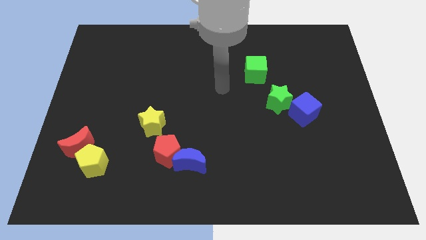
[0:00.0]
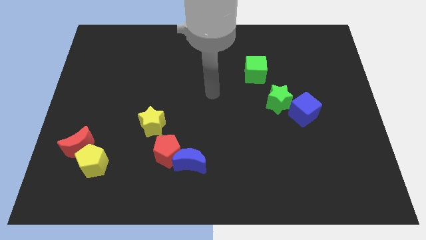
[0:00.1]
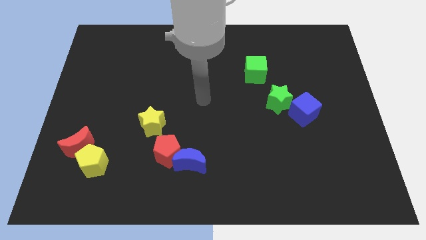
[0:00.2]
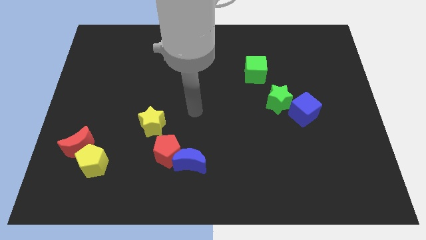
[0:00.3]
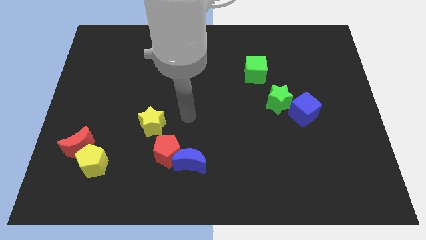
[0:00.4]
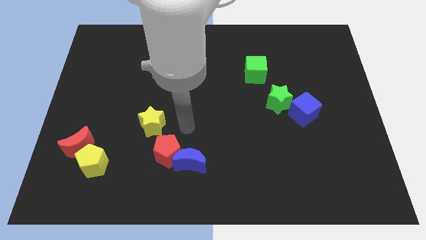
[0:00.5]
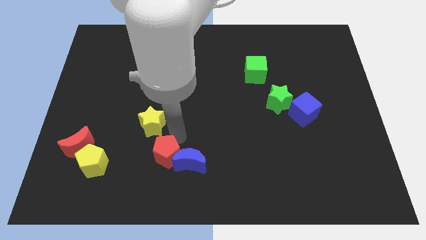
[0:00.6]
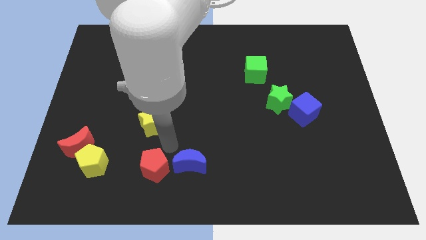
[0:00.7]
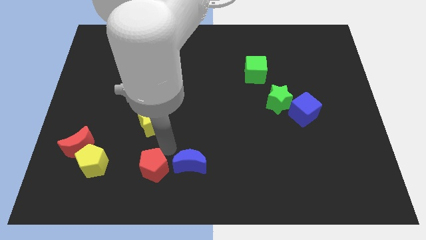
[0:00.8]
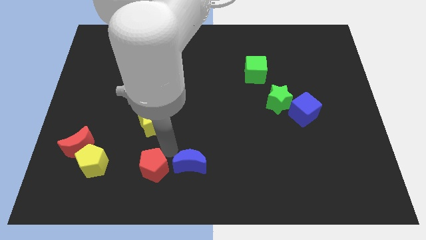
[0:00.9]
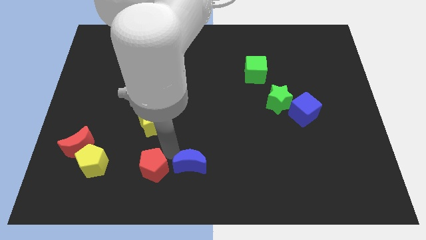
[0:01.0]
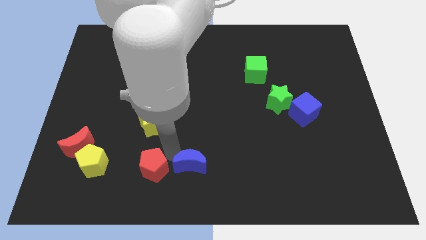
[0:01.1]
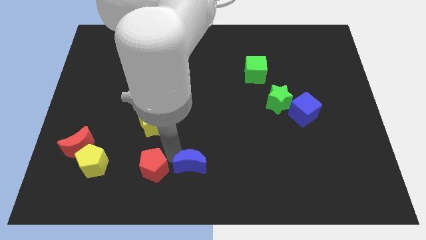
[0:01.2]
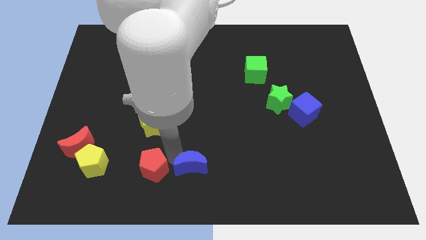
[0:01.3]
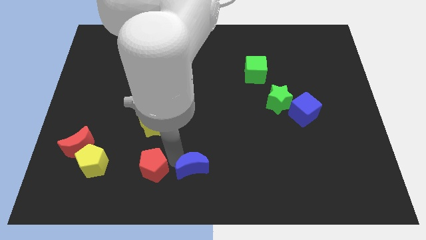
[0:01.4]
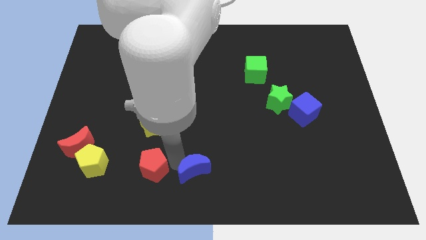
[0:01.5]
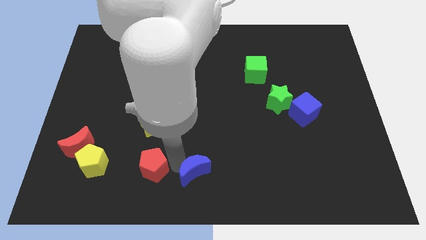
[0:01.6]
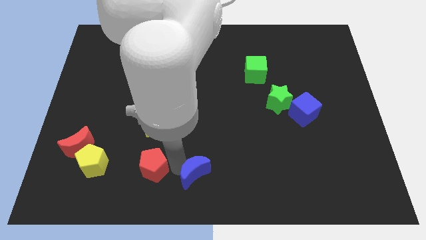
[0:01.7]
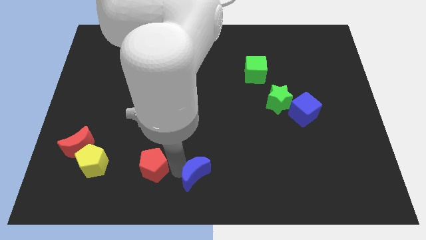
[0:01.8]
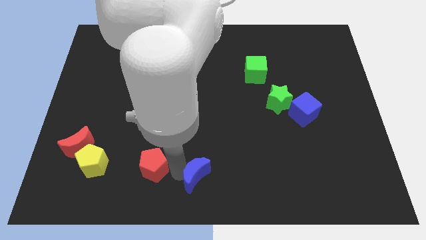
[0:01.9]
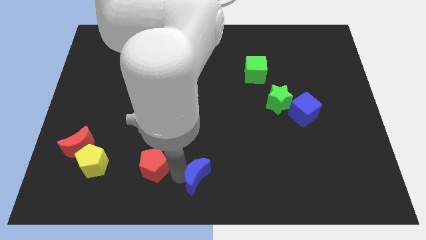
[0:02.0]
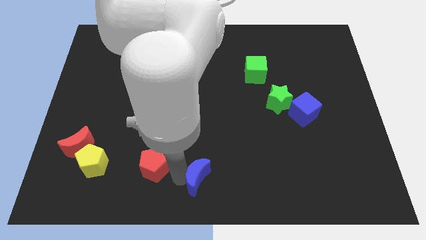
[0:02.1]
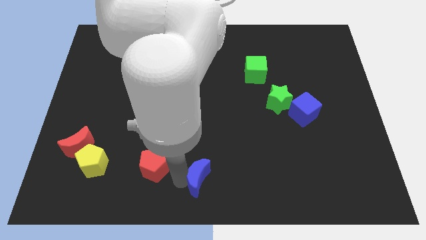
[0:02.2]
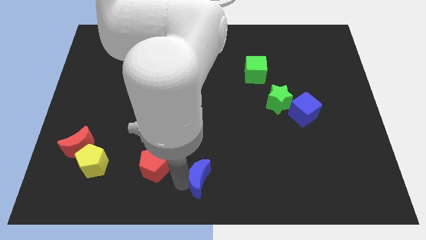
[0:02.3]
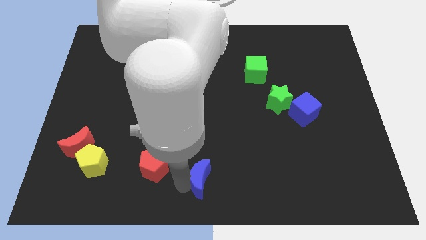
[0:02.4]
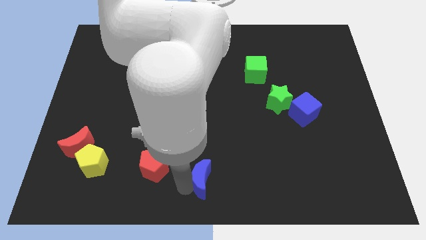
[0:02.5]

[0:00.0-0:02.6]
separate the blue moon from the red pentagon

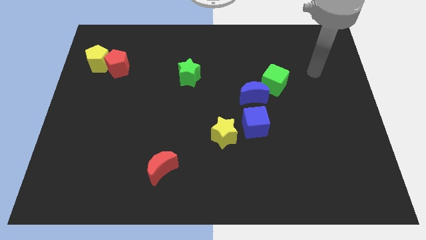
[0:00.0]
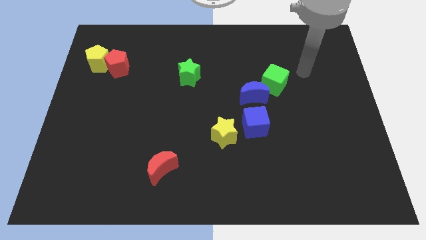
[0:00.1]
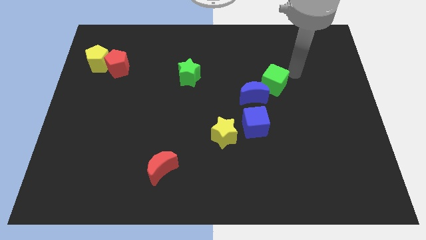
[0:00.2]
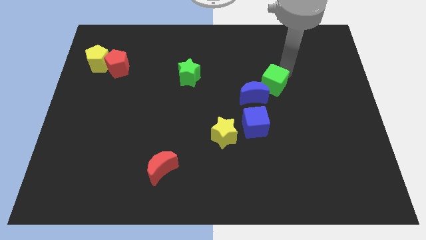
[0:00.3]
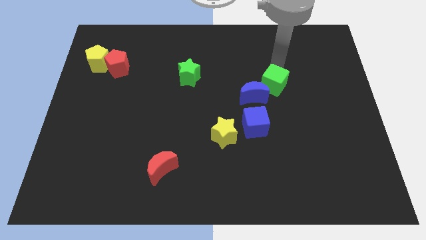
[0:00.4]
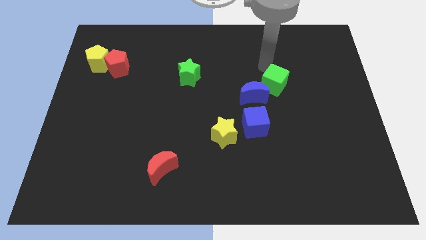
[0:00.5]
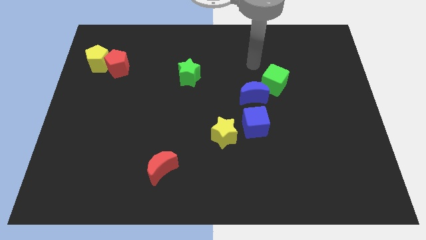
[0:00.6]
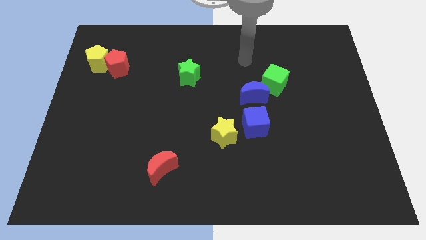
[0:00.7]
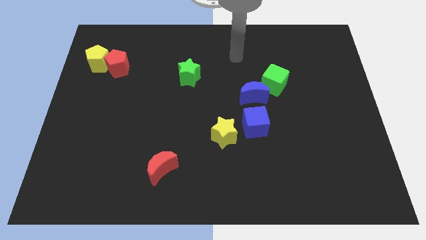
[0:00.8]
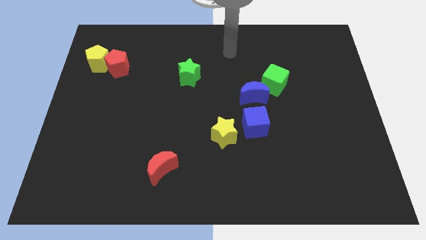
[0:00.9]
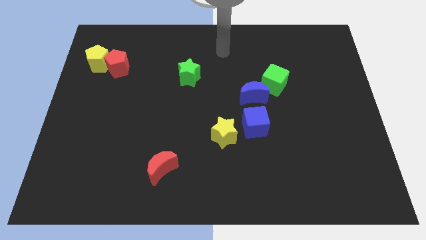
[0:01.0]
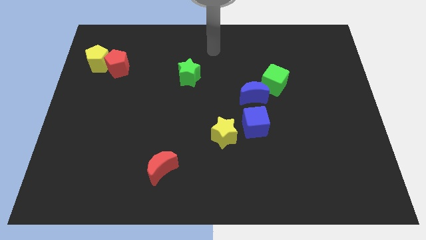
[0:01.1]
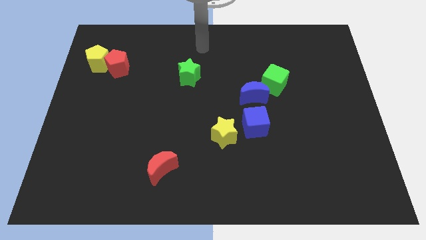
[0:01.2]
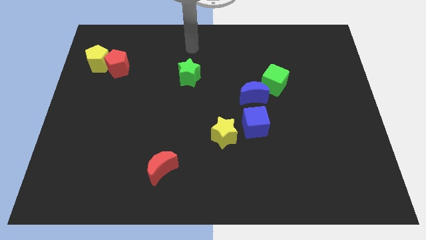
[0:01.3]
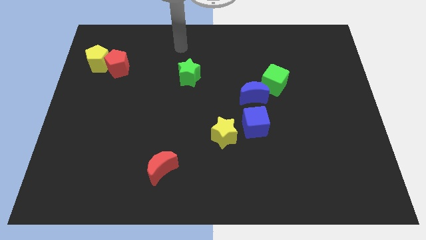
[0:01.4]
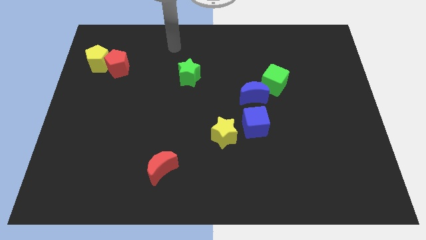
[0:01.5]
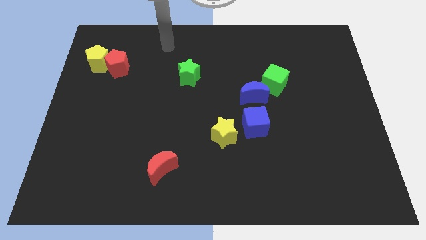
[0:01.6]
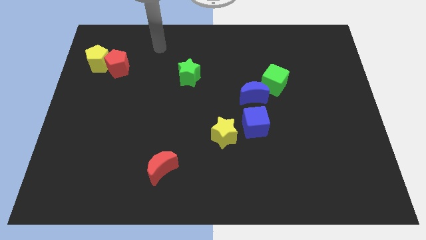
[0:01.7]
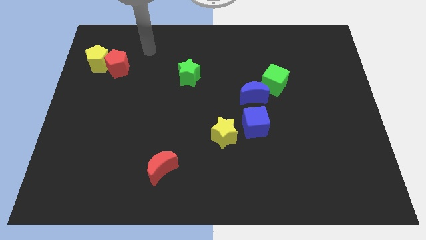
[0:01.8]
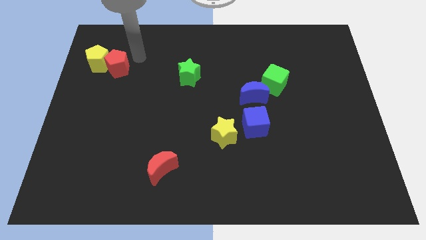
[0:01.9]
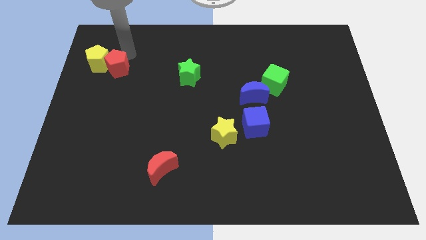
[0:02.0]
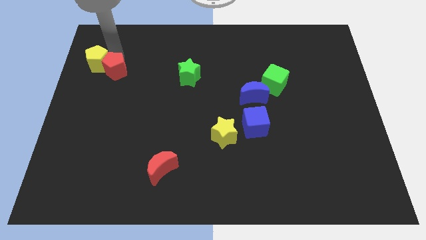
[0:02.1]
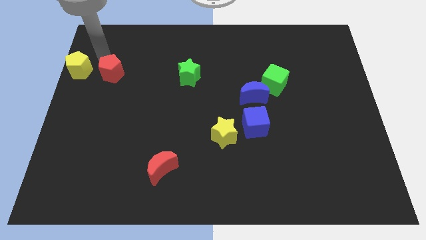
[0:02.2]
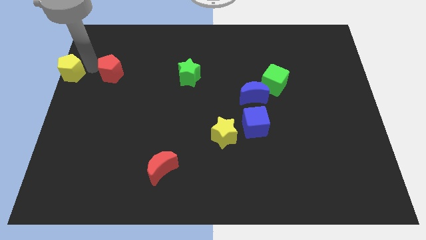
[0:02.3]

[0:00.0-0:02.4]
move the red pentagon away from the yellow pentagon

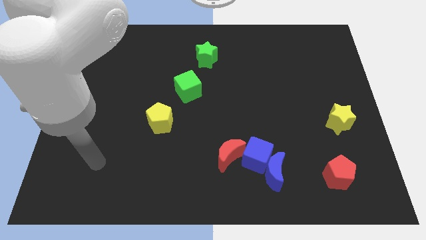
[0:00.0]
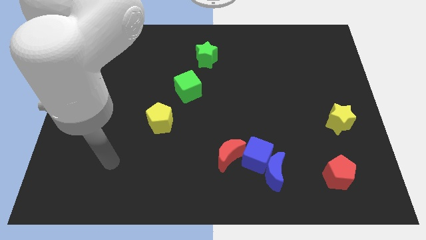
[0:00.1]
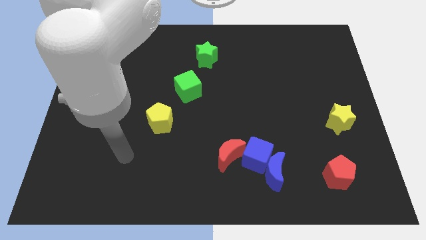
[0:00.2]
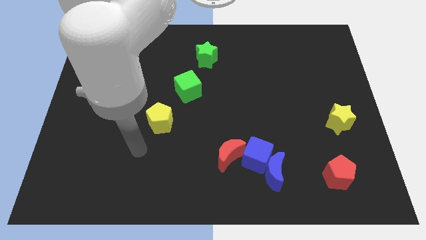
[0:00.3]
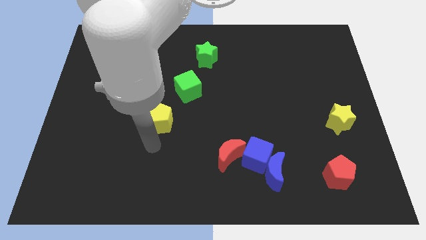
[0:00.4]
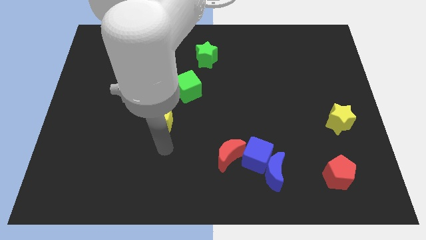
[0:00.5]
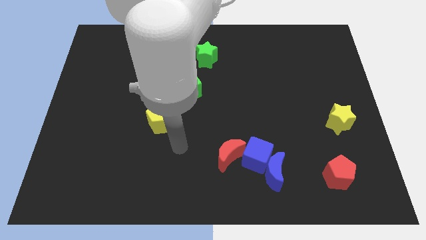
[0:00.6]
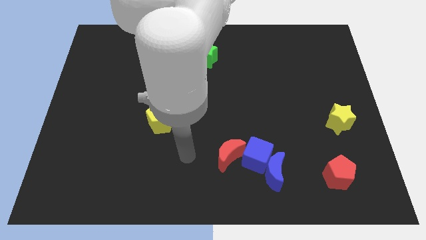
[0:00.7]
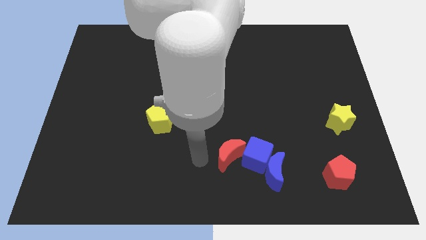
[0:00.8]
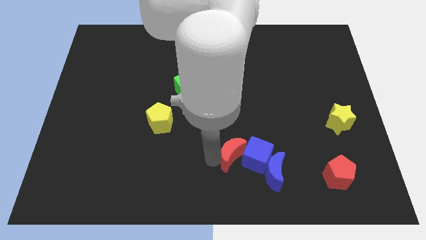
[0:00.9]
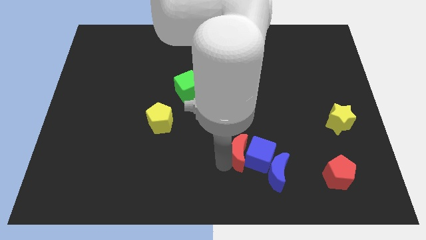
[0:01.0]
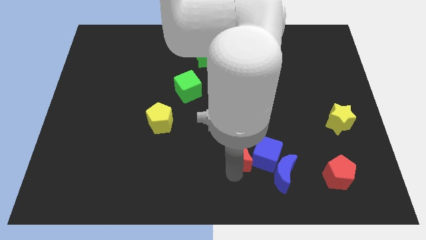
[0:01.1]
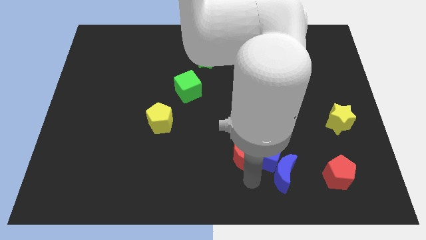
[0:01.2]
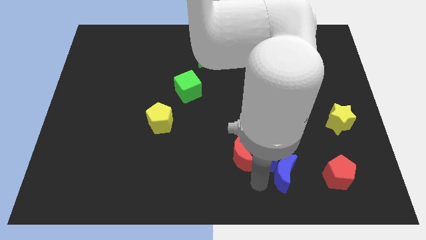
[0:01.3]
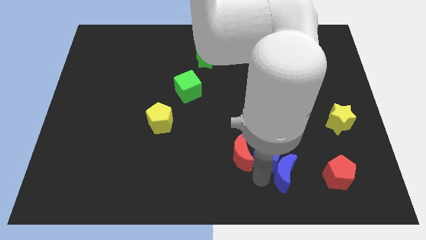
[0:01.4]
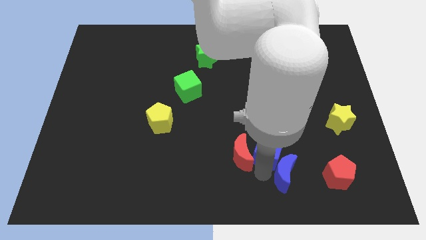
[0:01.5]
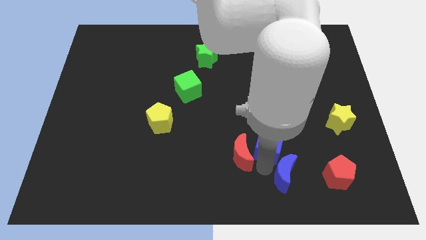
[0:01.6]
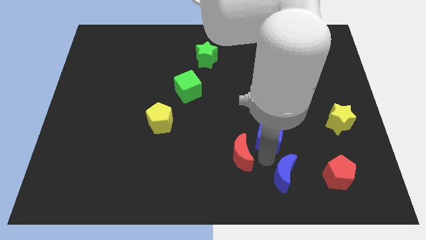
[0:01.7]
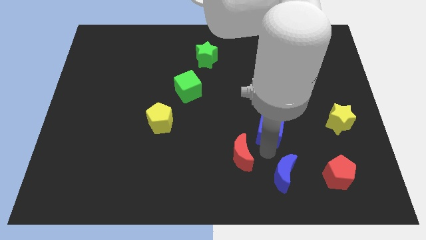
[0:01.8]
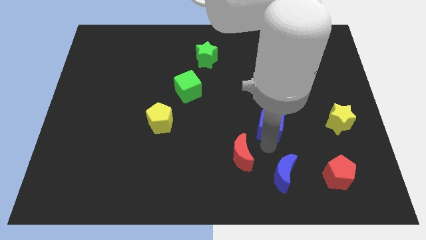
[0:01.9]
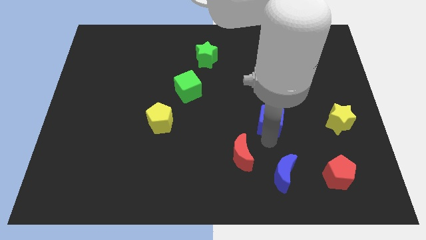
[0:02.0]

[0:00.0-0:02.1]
separate the blue cube from the blue moon and red moon

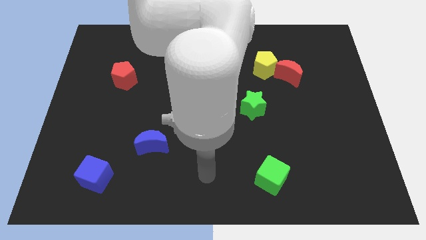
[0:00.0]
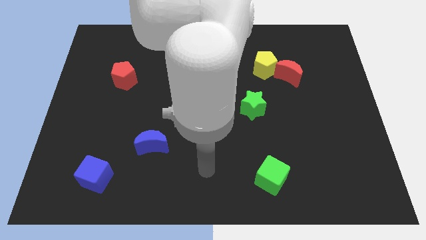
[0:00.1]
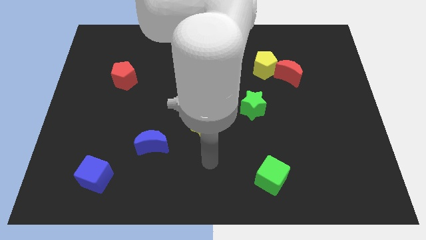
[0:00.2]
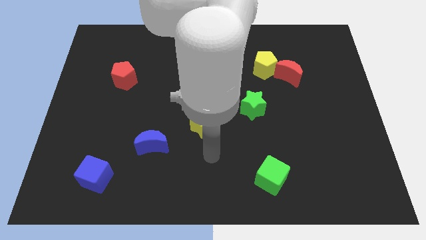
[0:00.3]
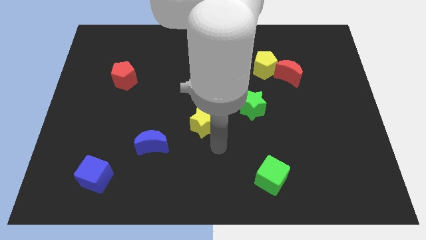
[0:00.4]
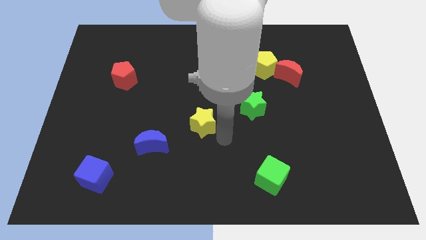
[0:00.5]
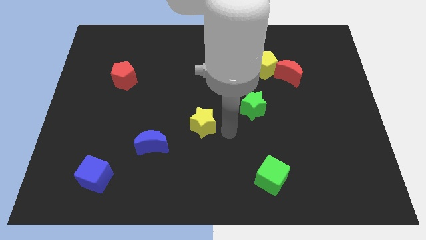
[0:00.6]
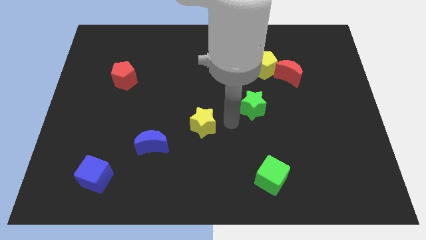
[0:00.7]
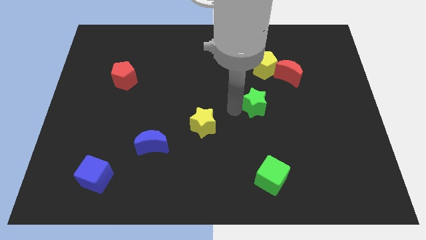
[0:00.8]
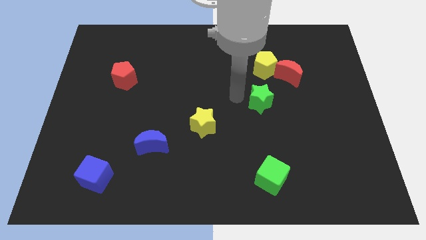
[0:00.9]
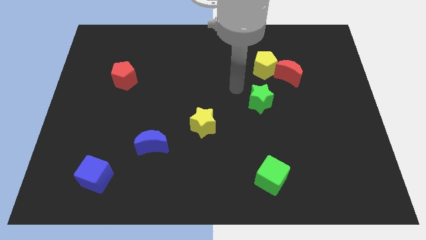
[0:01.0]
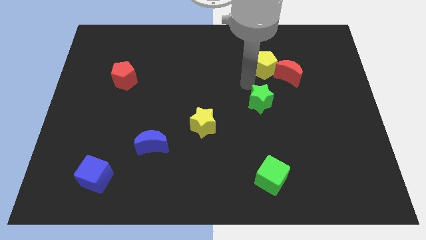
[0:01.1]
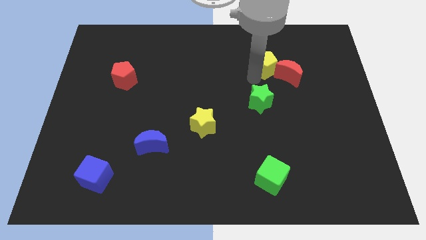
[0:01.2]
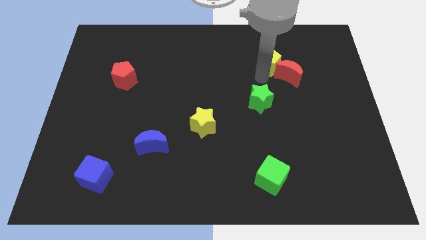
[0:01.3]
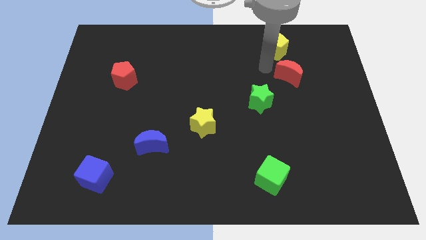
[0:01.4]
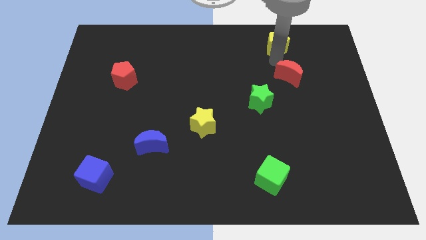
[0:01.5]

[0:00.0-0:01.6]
pull the red moon apart from the yellow pentagon

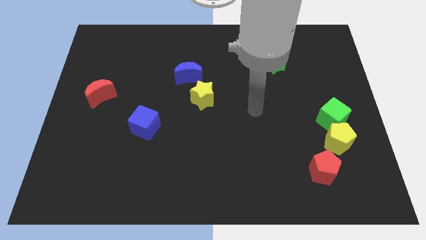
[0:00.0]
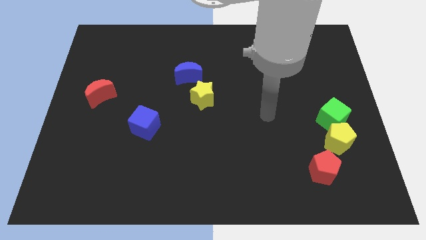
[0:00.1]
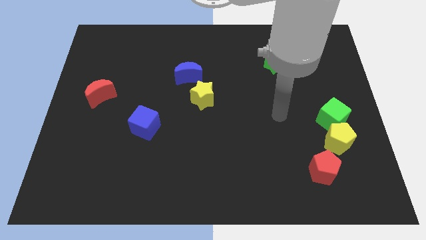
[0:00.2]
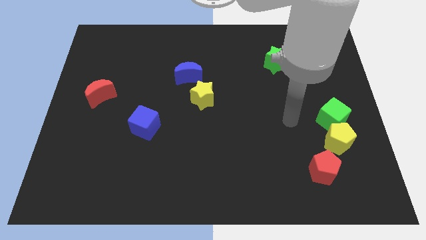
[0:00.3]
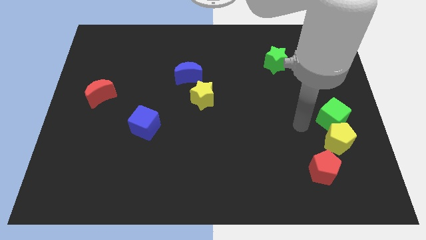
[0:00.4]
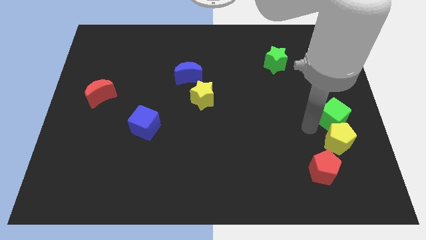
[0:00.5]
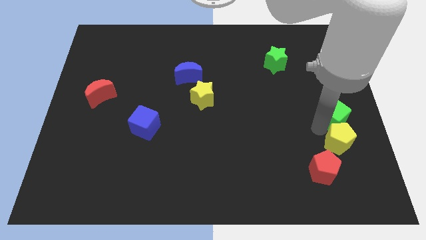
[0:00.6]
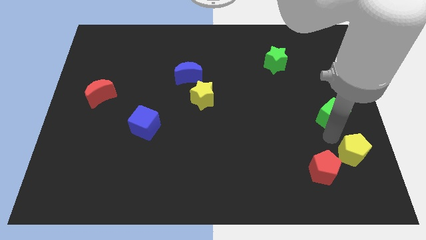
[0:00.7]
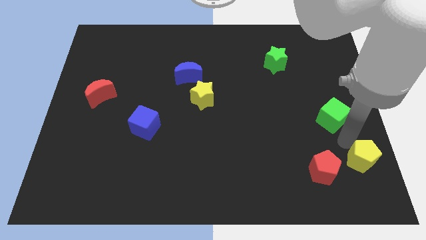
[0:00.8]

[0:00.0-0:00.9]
pull the green cube apart from the yellow pentagon
